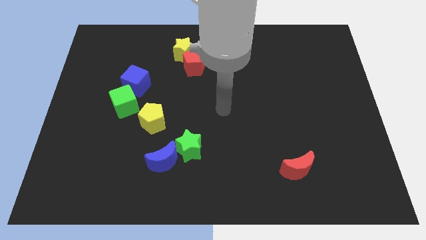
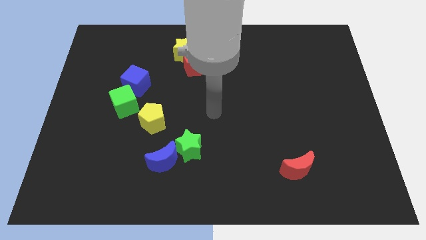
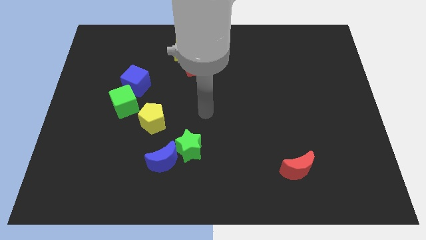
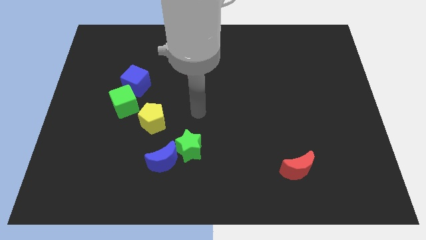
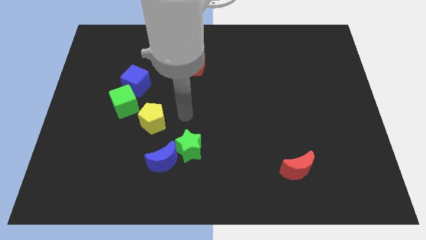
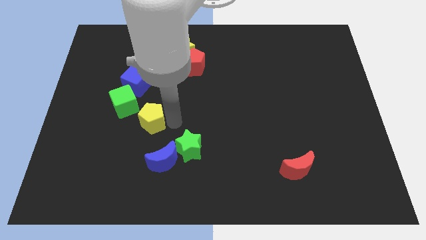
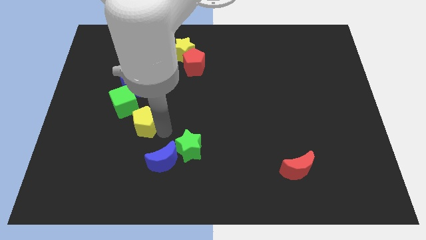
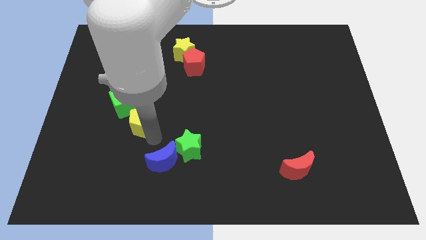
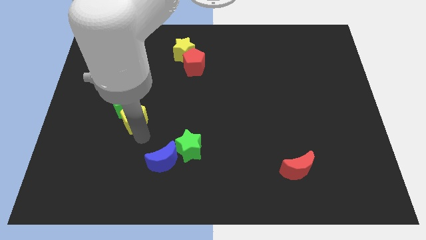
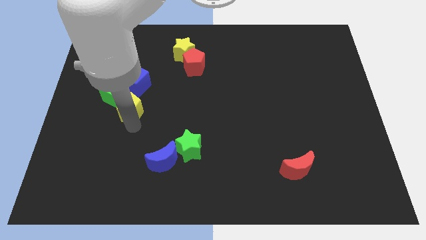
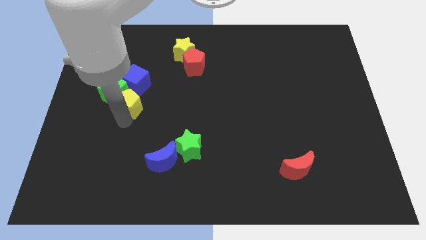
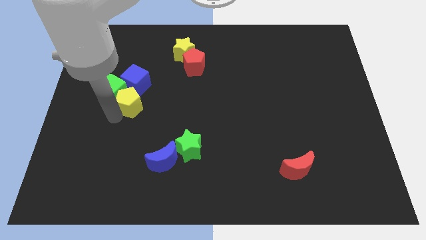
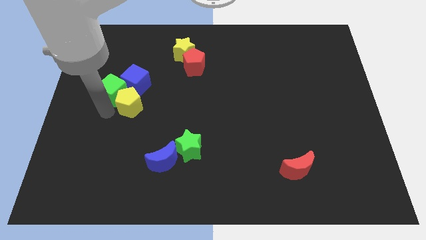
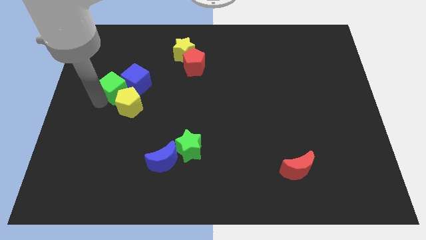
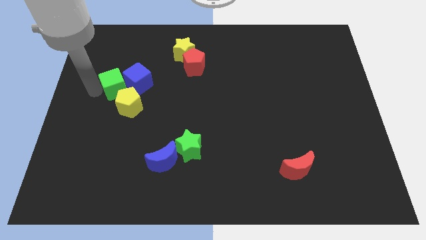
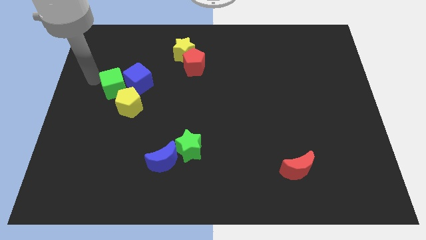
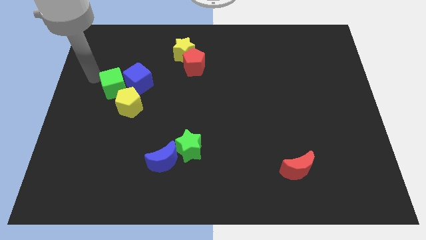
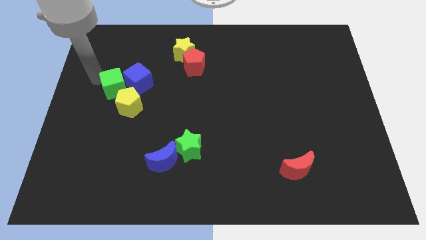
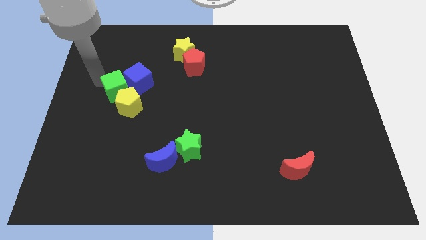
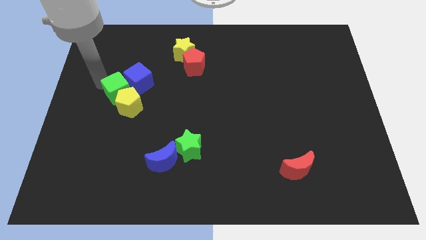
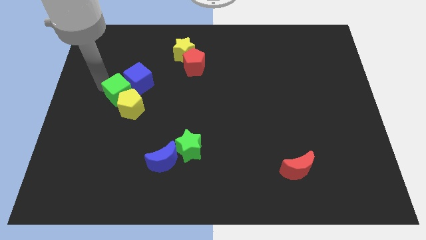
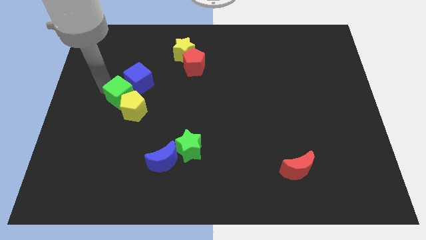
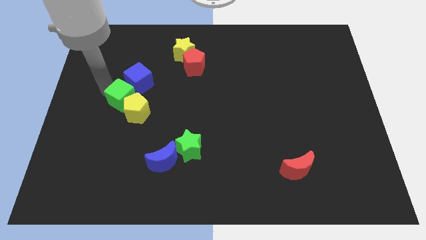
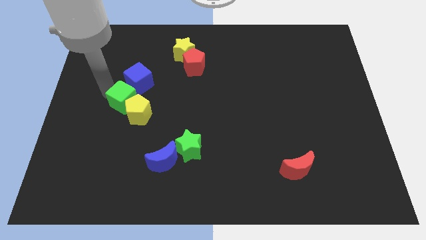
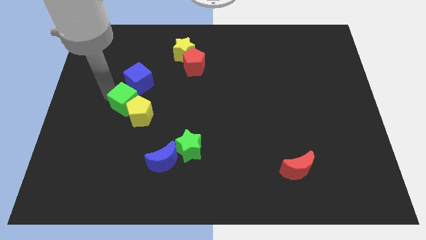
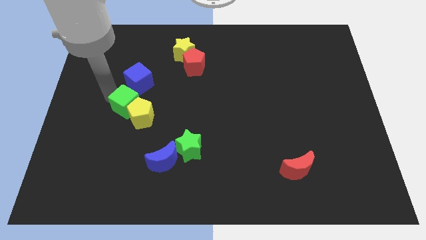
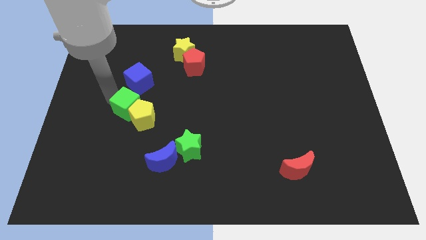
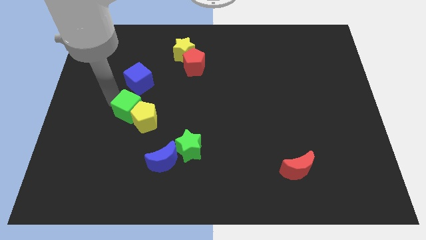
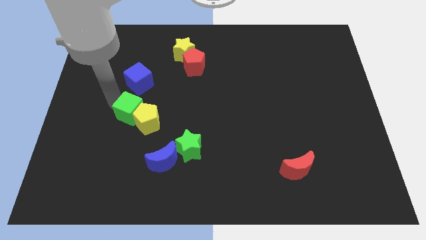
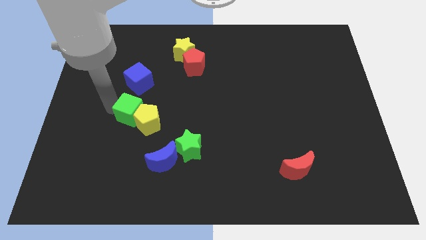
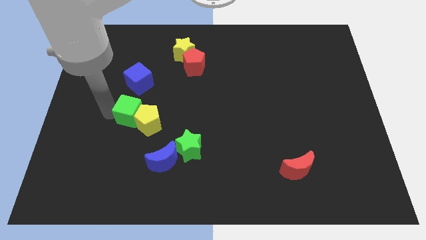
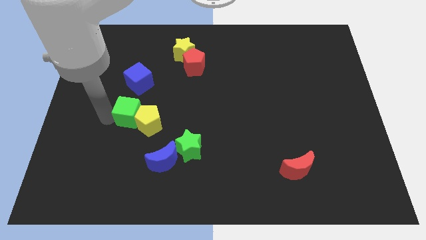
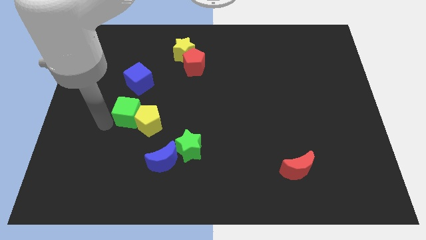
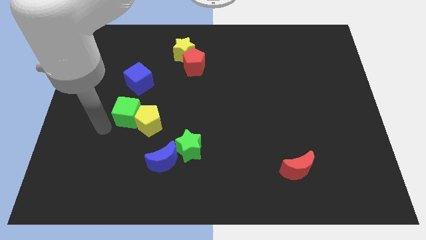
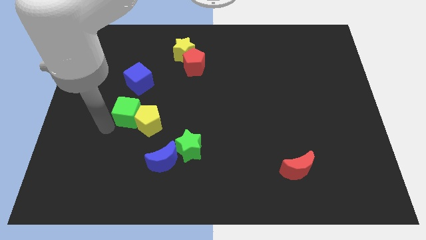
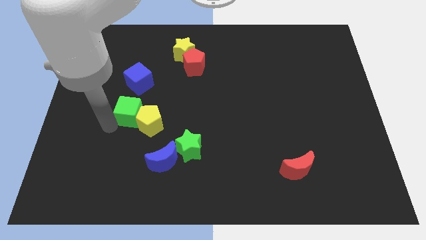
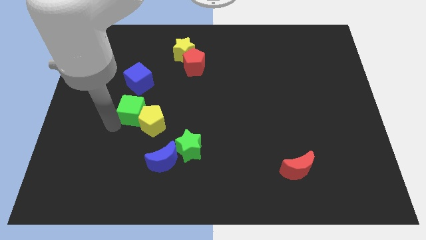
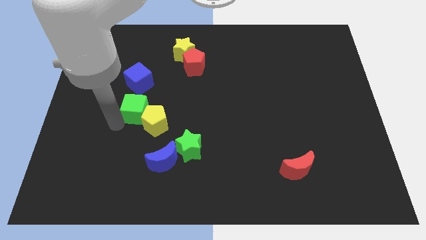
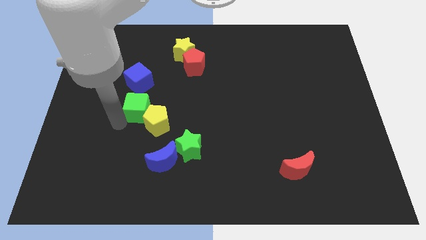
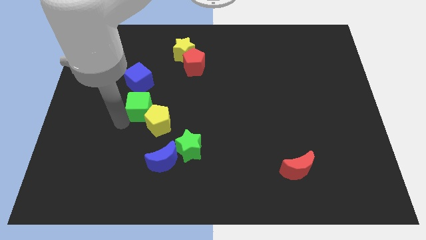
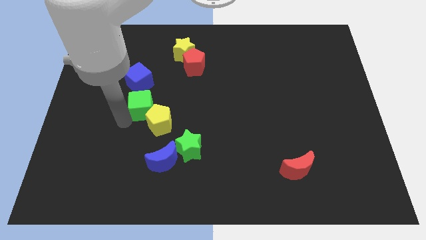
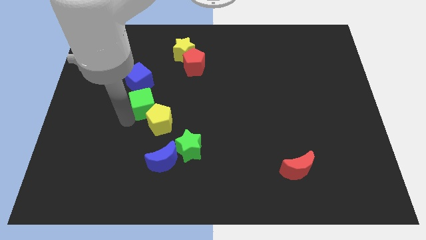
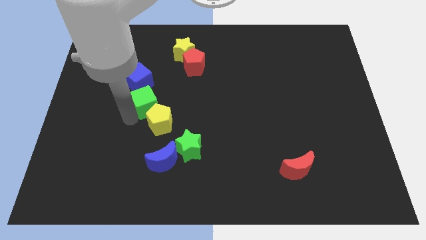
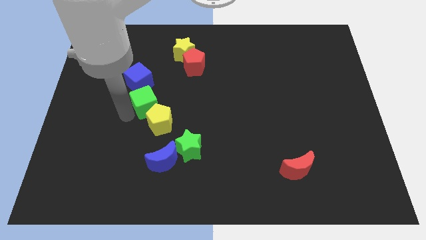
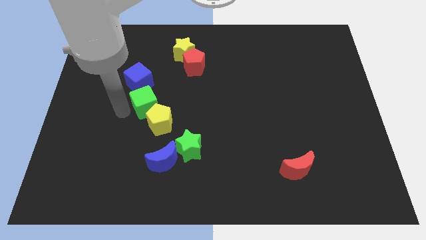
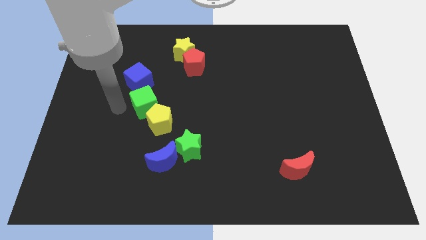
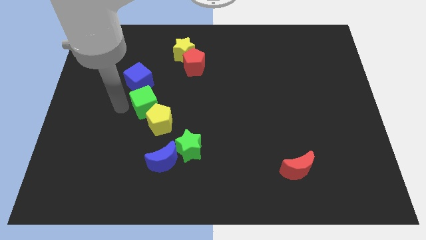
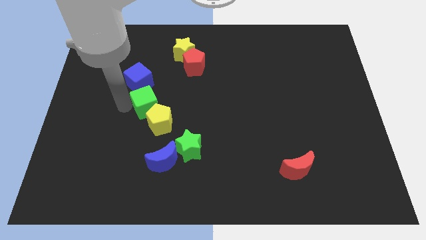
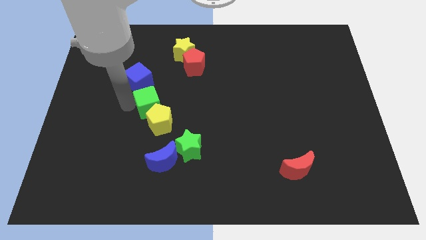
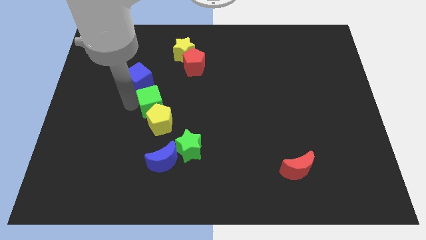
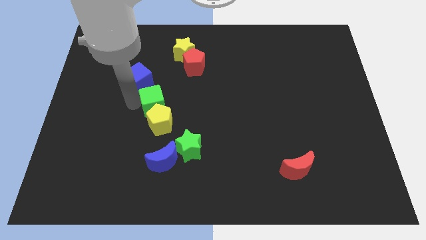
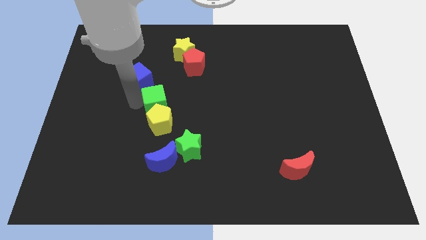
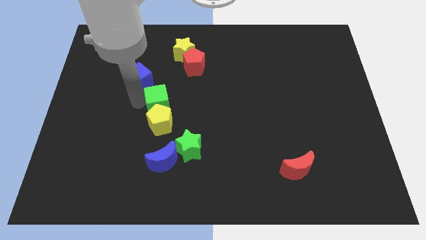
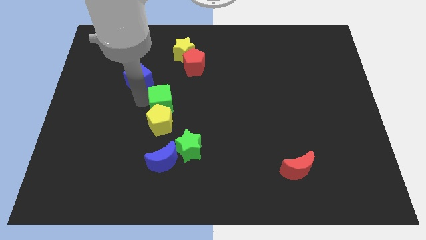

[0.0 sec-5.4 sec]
move the green cube to the middle of the board

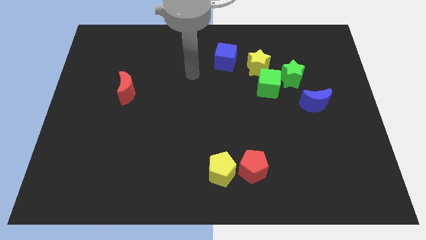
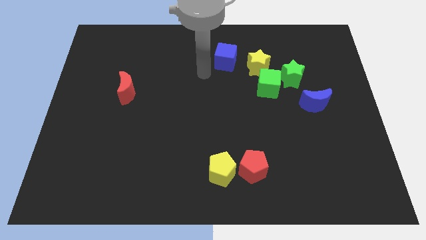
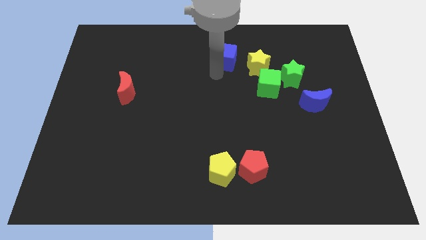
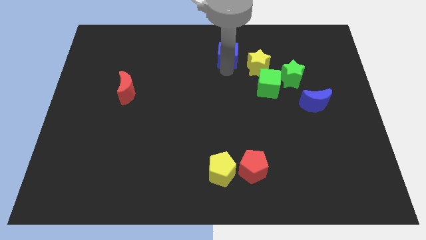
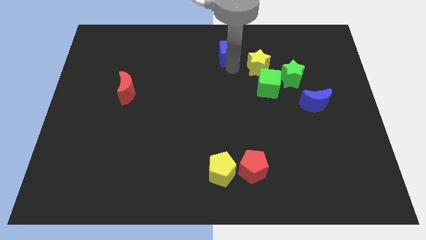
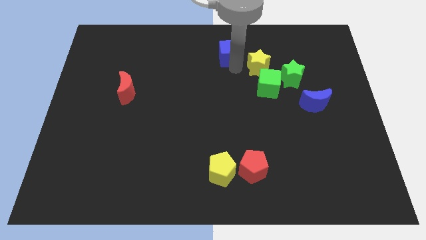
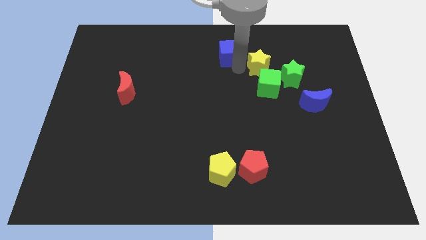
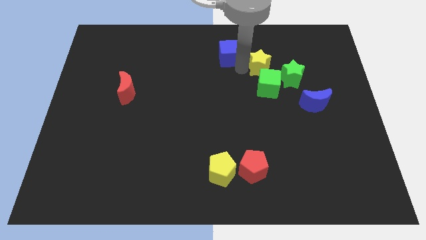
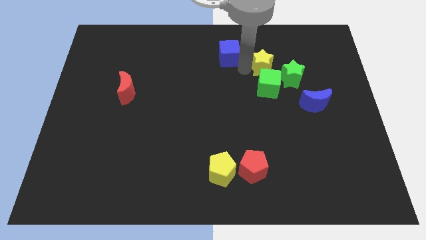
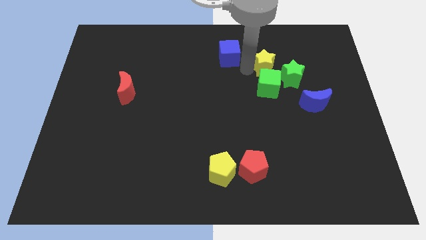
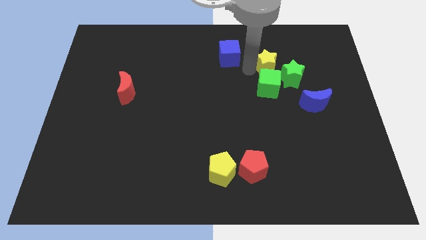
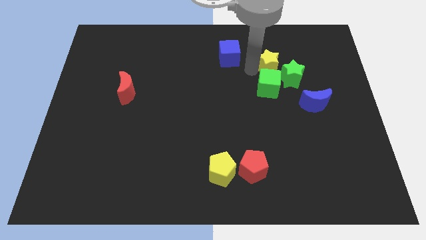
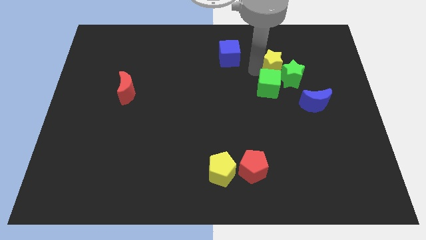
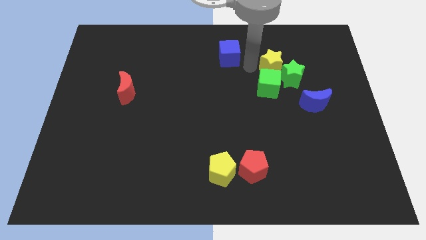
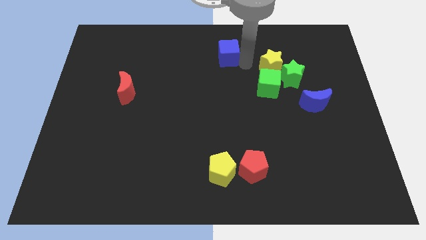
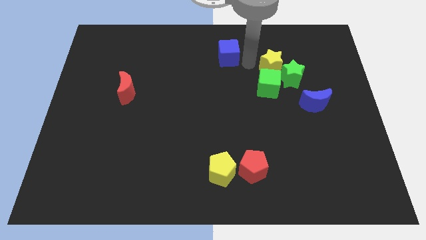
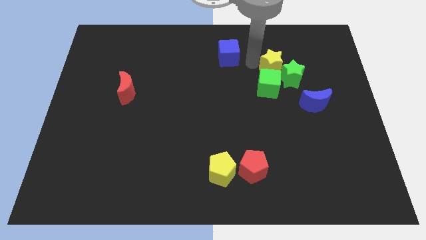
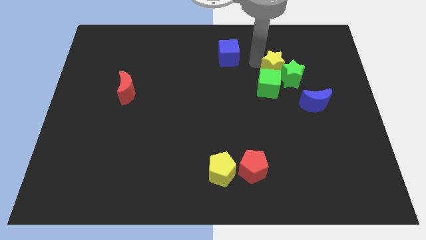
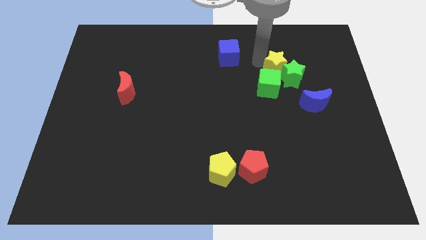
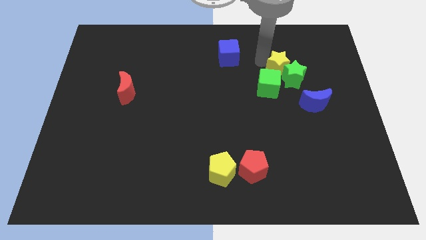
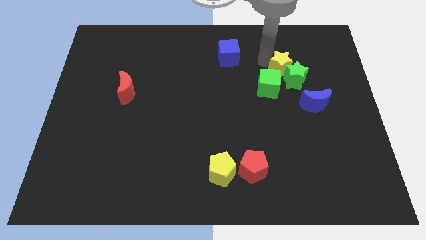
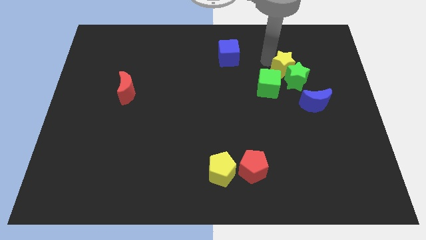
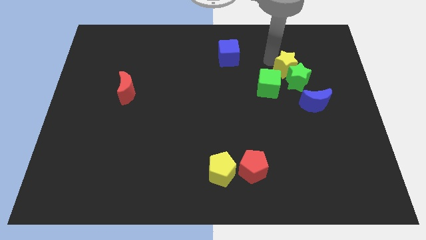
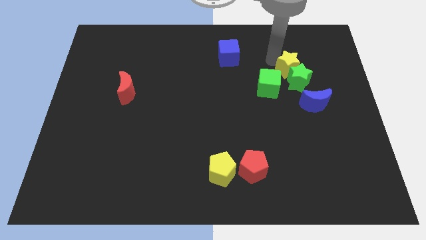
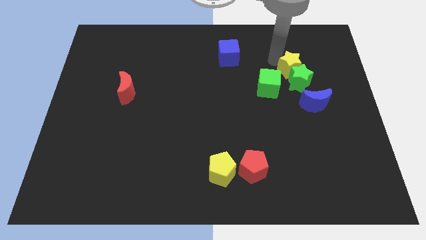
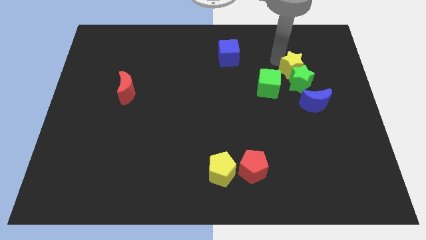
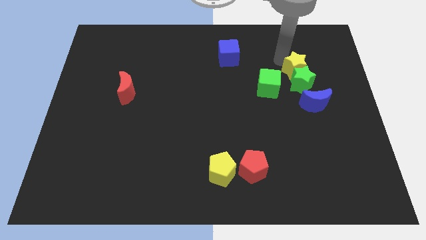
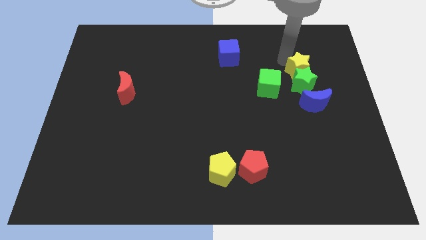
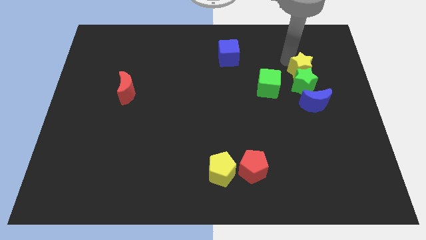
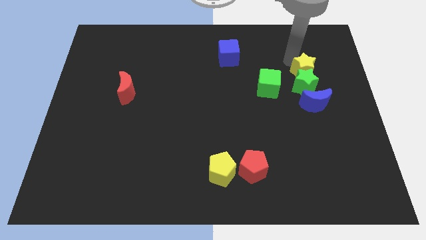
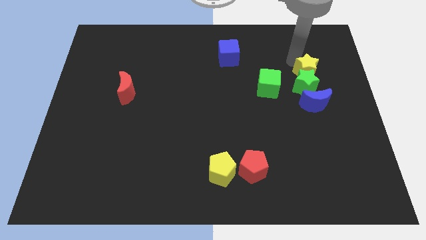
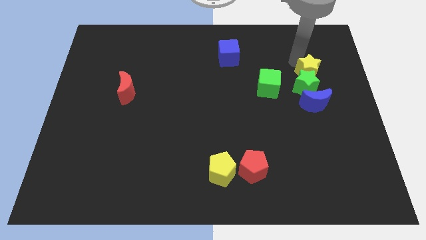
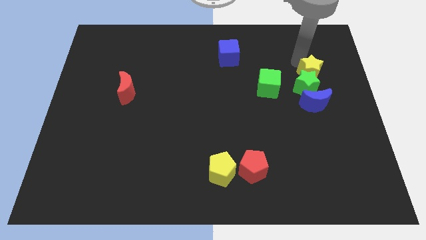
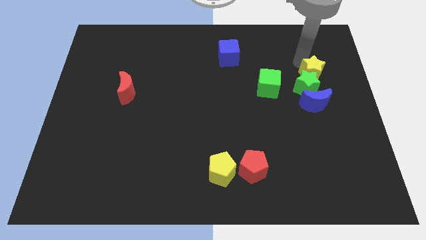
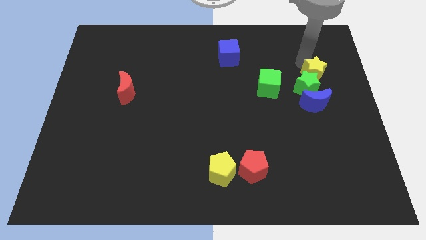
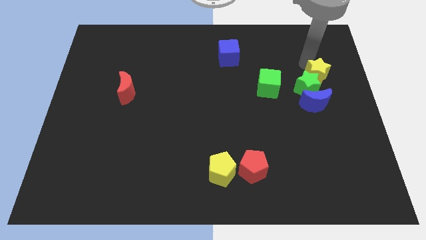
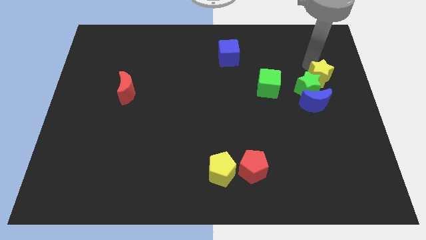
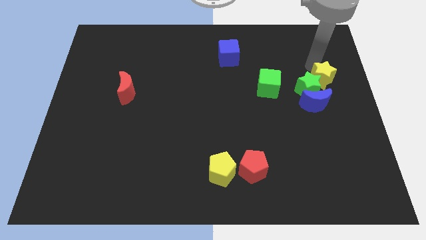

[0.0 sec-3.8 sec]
slide the yellow star to the right side of the board
